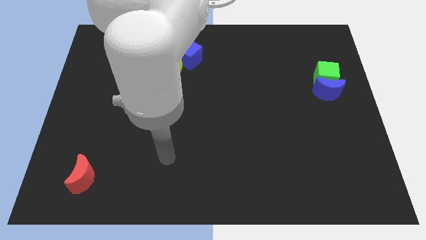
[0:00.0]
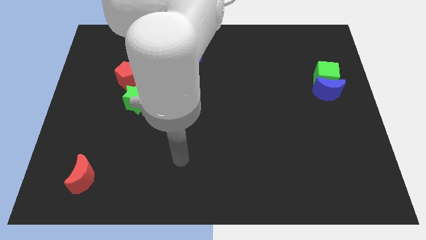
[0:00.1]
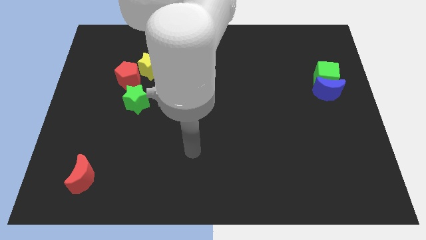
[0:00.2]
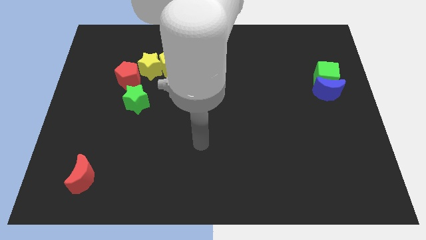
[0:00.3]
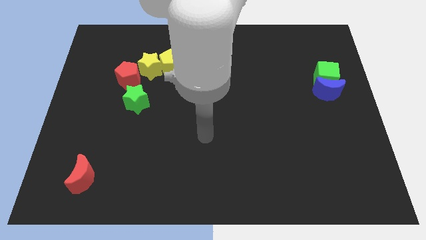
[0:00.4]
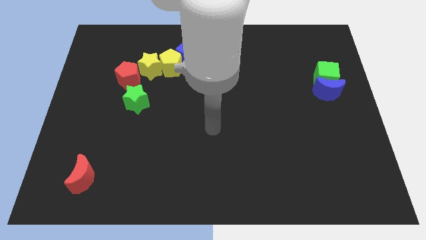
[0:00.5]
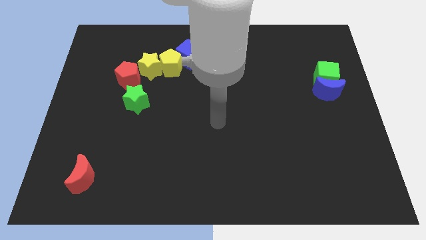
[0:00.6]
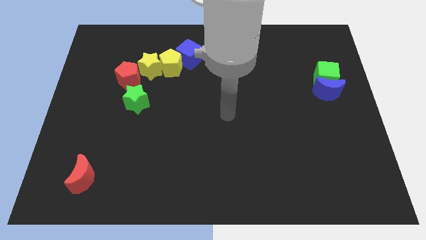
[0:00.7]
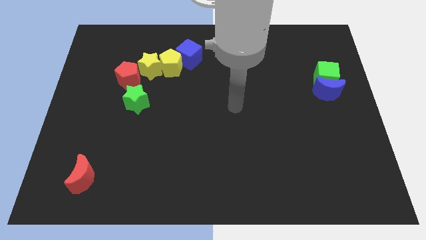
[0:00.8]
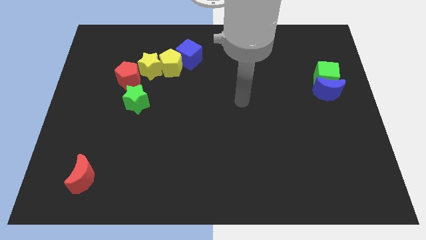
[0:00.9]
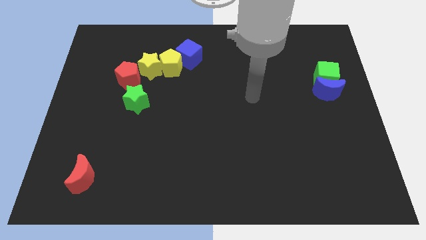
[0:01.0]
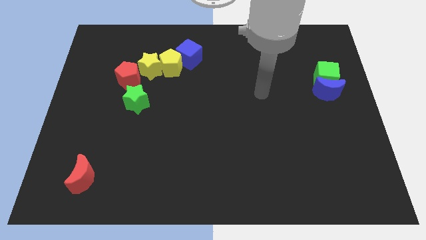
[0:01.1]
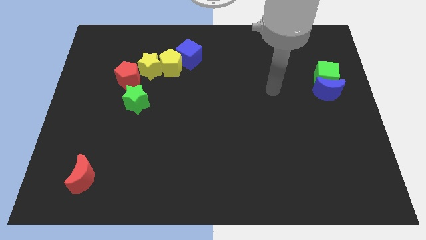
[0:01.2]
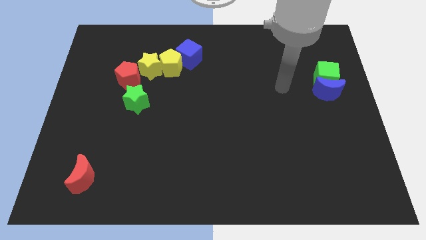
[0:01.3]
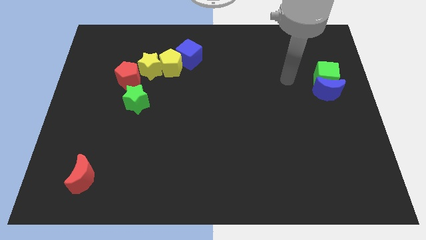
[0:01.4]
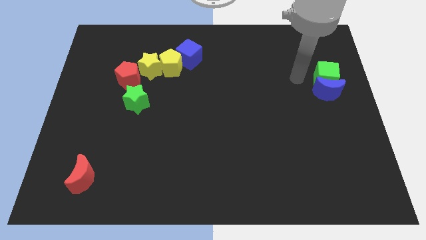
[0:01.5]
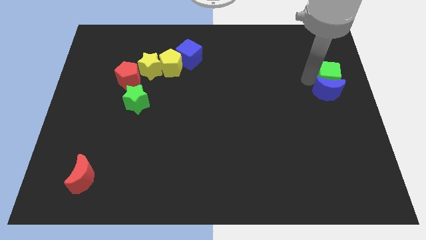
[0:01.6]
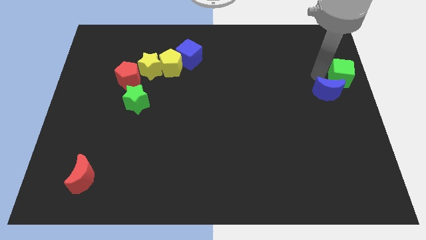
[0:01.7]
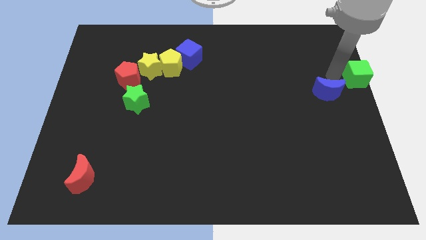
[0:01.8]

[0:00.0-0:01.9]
separate the blue moon from the green cube

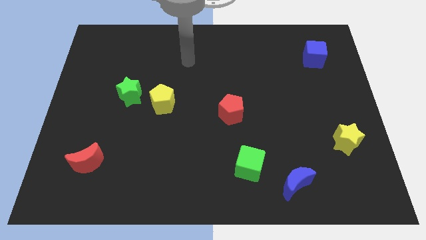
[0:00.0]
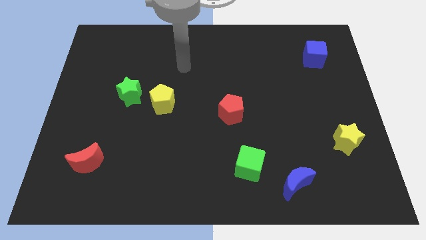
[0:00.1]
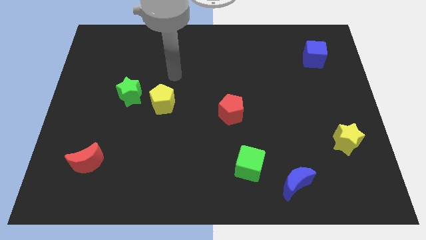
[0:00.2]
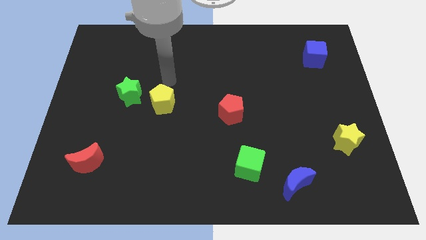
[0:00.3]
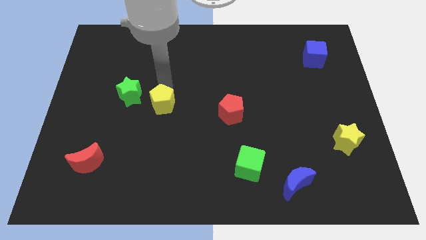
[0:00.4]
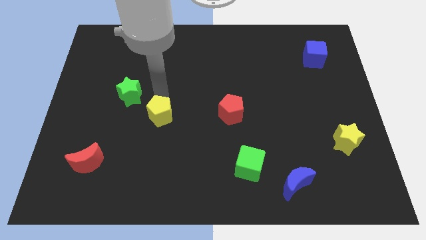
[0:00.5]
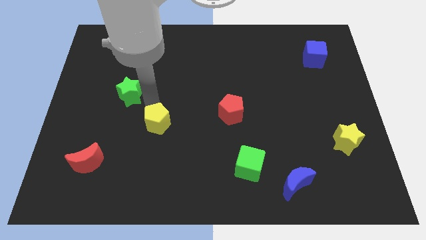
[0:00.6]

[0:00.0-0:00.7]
pull the green star apart from the yellow pentagon

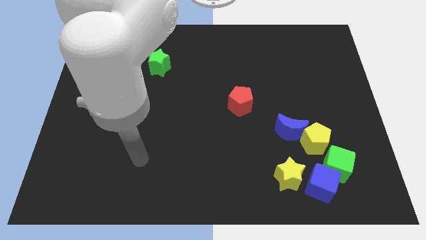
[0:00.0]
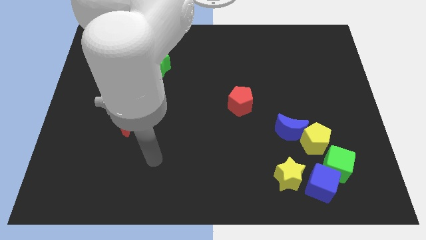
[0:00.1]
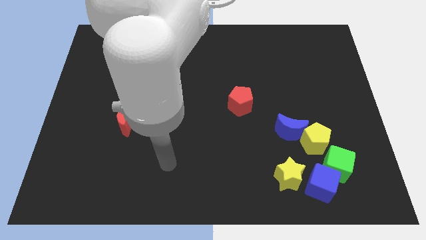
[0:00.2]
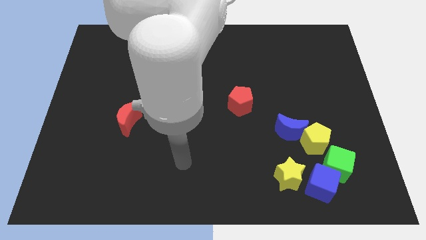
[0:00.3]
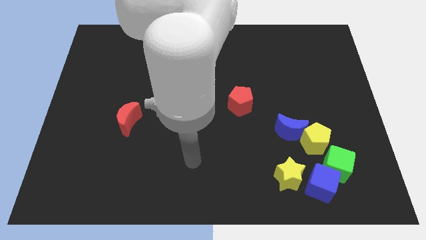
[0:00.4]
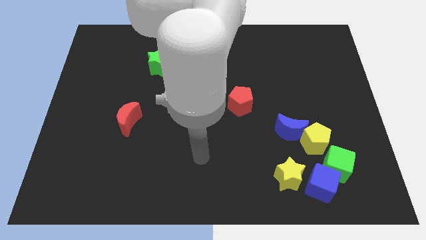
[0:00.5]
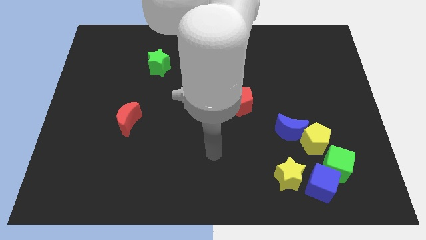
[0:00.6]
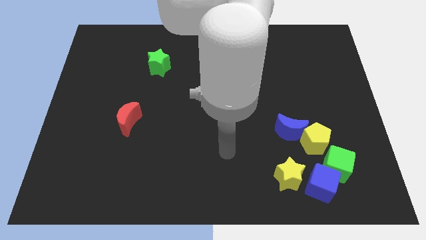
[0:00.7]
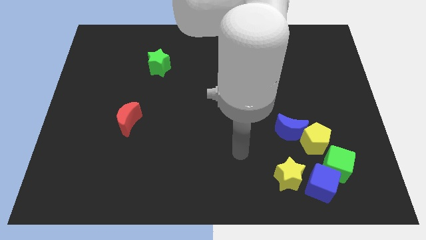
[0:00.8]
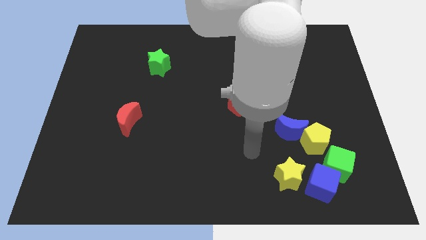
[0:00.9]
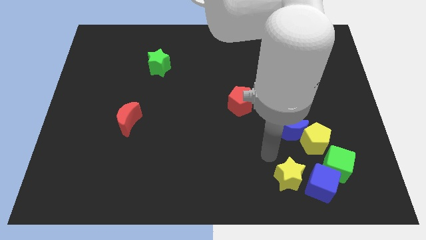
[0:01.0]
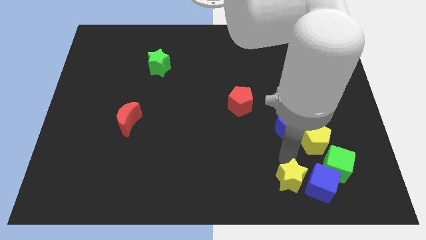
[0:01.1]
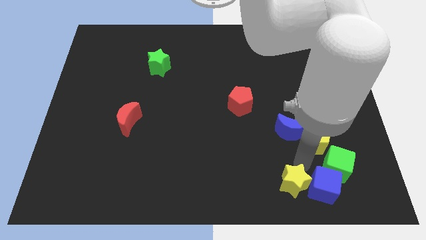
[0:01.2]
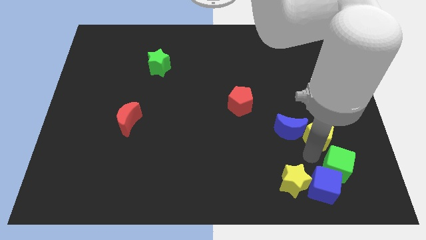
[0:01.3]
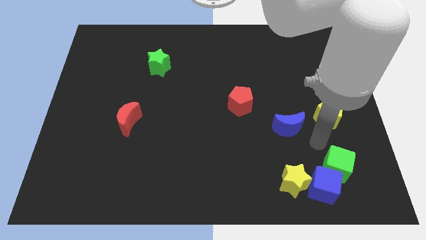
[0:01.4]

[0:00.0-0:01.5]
separate the blue moon from the yellow pentagon

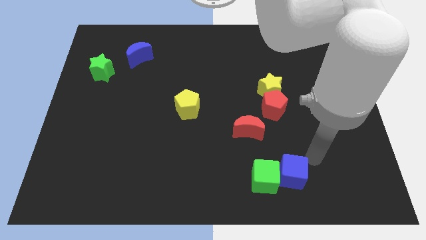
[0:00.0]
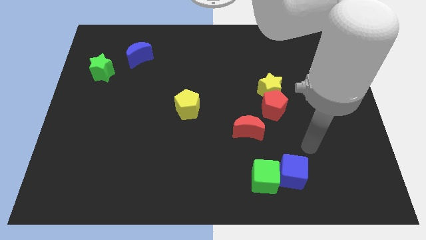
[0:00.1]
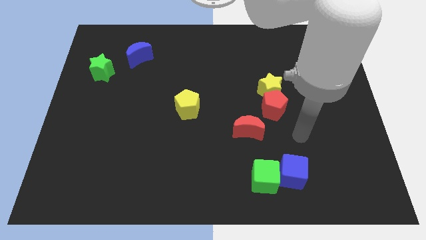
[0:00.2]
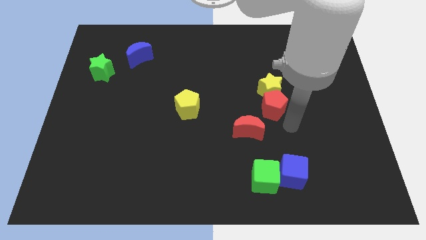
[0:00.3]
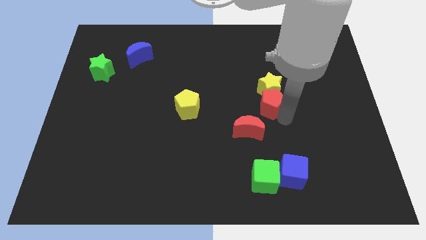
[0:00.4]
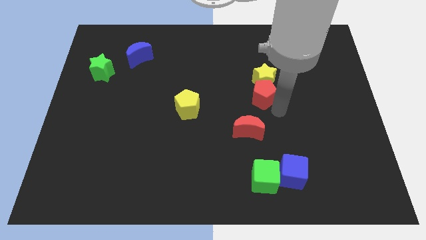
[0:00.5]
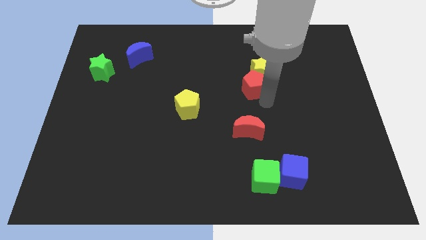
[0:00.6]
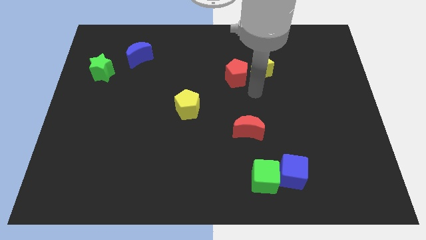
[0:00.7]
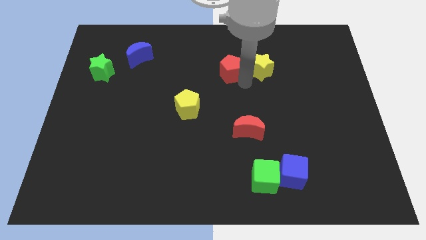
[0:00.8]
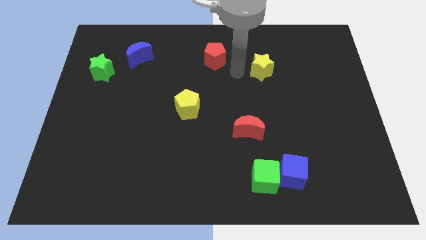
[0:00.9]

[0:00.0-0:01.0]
move the yellow star away from the red pentagon

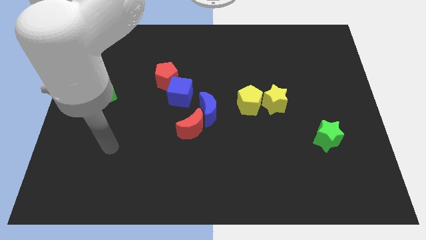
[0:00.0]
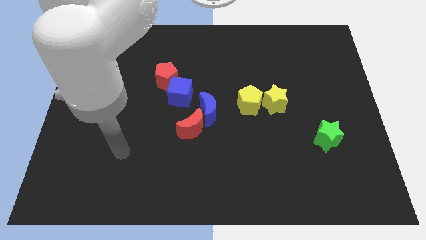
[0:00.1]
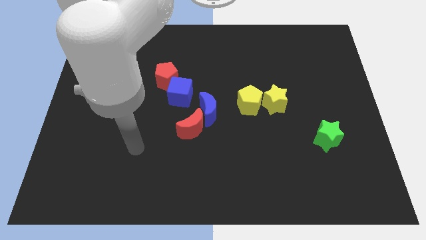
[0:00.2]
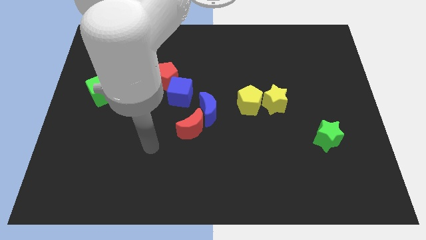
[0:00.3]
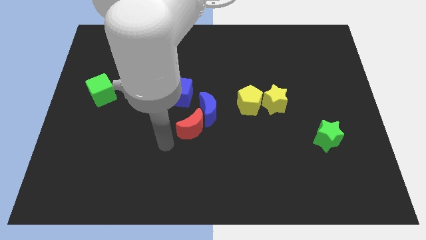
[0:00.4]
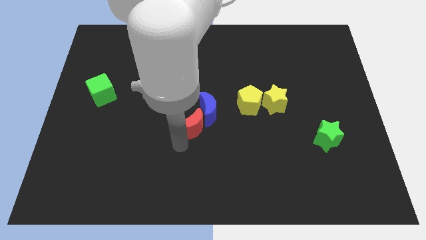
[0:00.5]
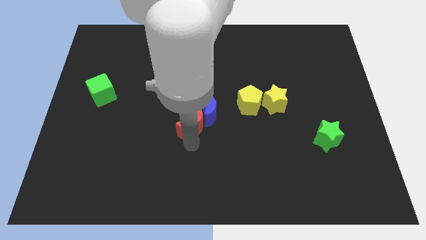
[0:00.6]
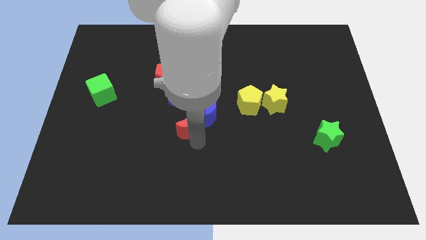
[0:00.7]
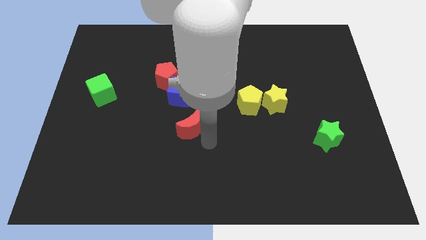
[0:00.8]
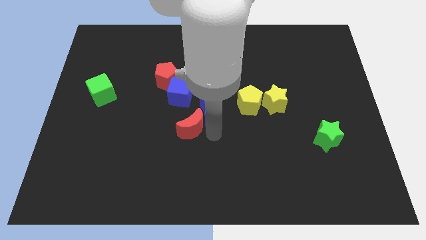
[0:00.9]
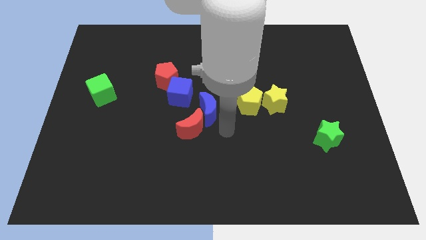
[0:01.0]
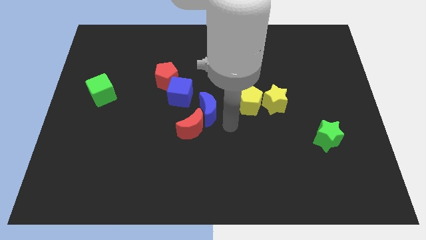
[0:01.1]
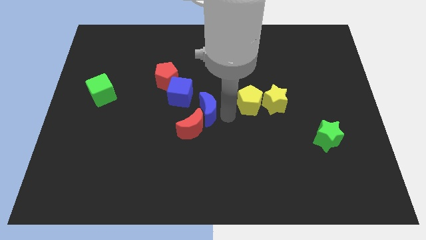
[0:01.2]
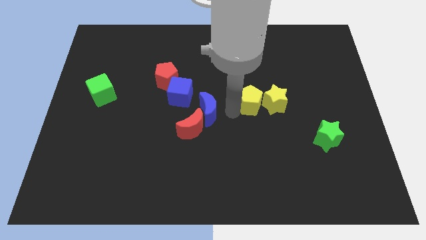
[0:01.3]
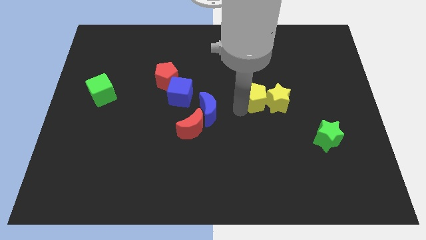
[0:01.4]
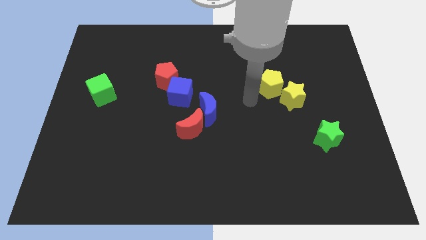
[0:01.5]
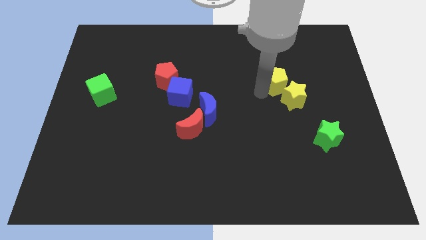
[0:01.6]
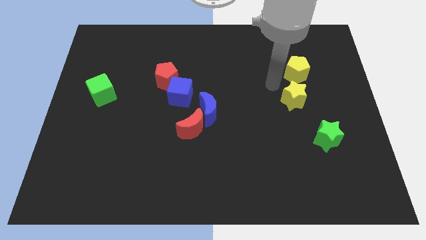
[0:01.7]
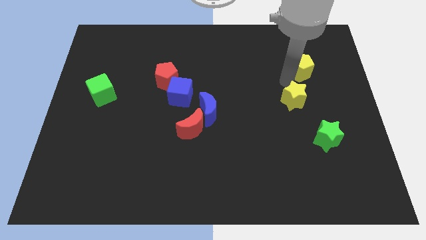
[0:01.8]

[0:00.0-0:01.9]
pull the yellow star apart from the yellow pentagon

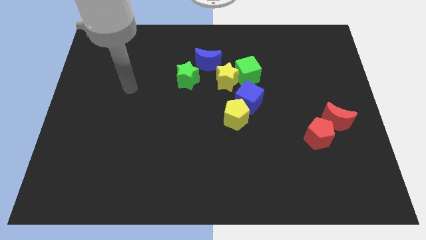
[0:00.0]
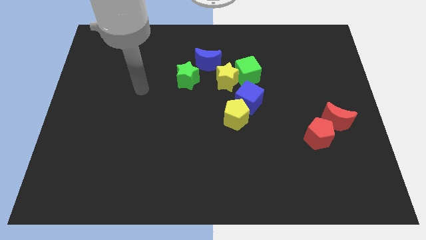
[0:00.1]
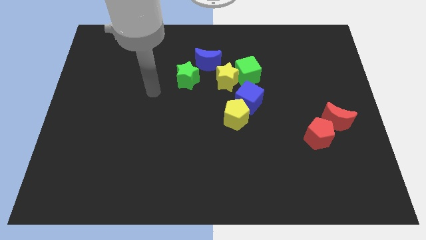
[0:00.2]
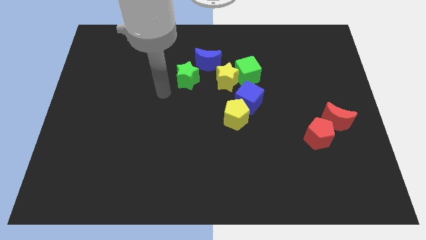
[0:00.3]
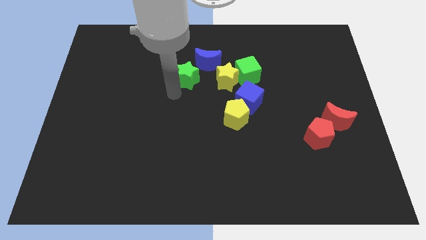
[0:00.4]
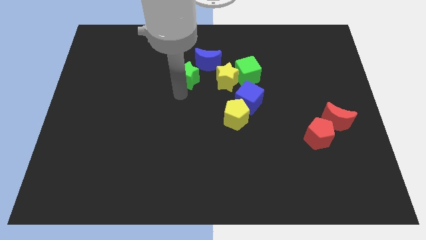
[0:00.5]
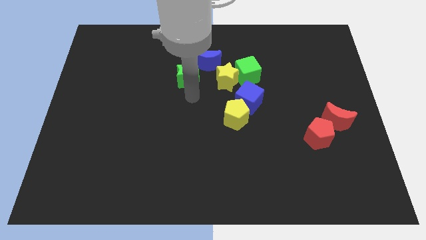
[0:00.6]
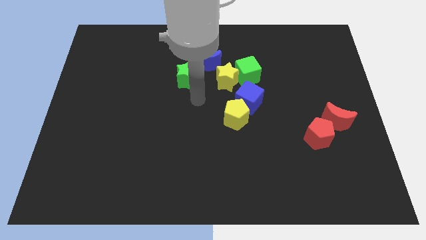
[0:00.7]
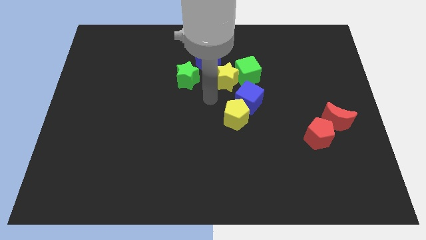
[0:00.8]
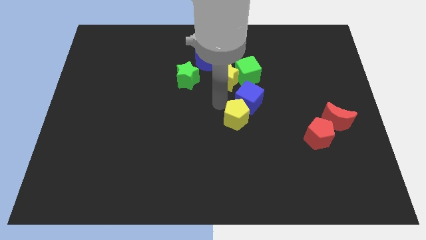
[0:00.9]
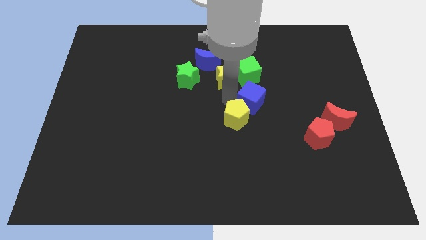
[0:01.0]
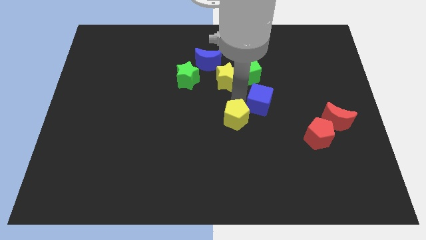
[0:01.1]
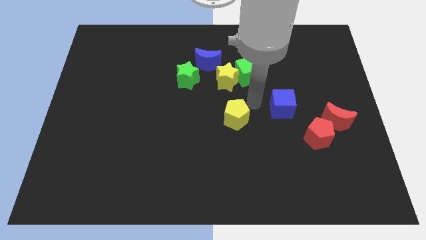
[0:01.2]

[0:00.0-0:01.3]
pull the yellow pentagon apart from the blue cube

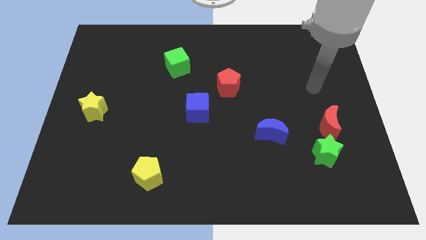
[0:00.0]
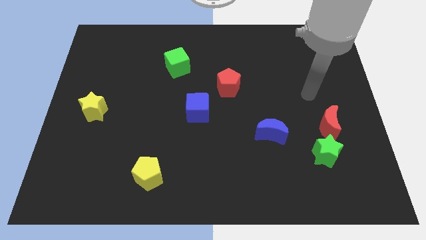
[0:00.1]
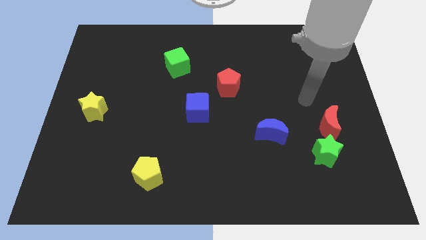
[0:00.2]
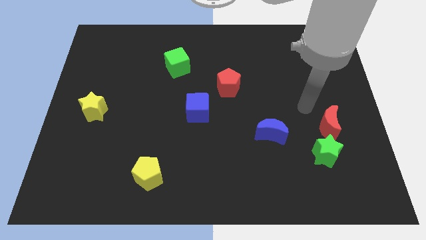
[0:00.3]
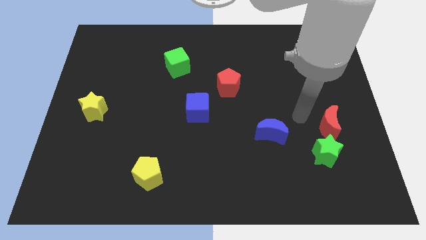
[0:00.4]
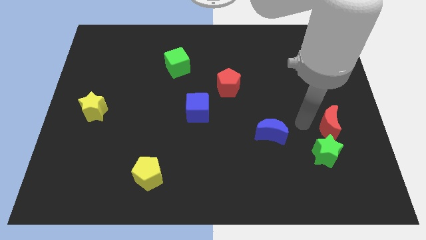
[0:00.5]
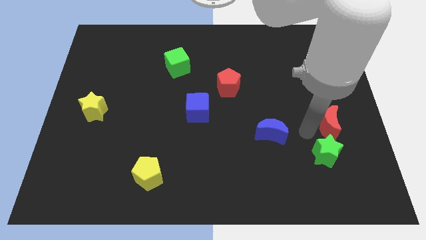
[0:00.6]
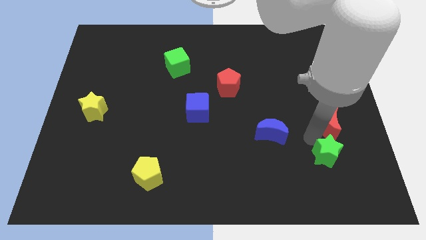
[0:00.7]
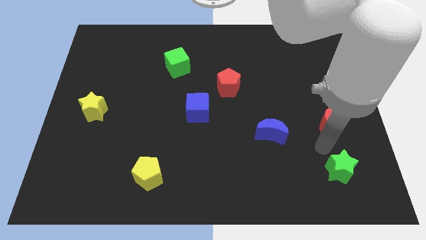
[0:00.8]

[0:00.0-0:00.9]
move the red moon away from the green star
